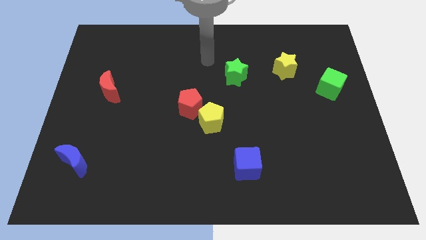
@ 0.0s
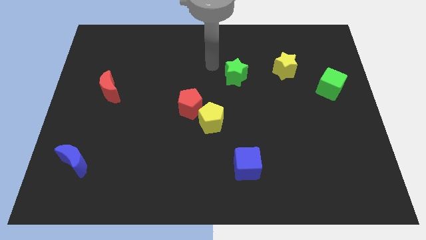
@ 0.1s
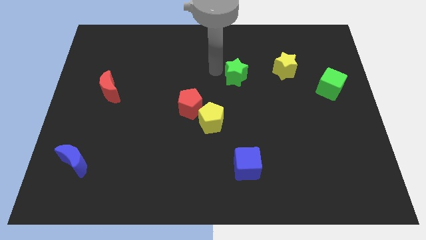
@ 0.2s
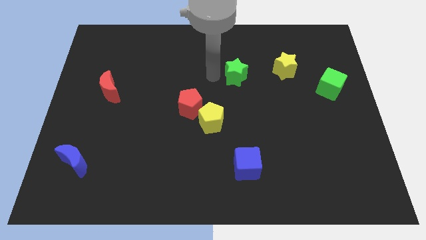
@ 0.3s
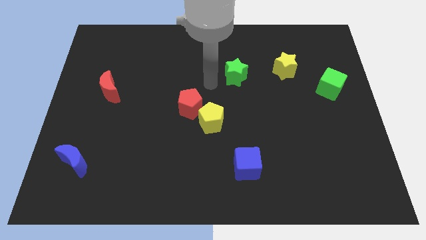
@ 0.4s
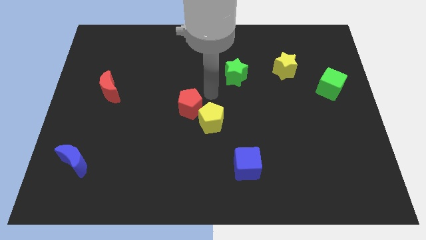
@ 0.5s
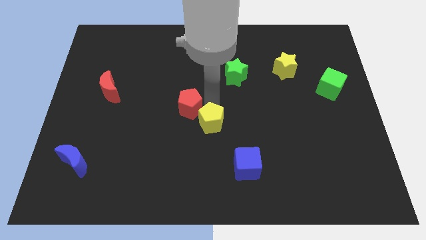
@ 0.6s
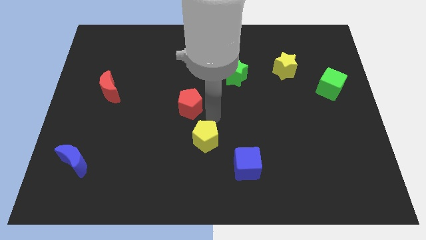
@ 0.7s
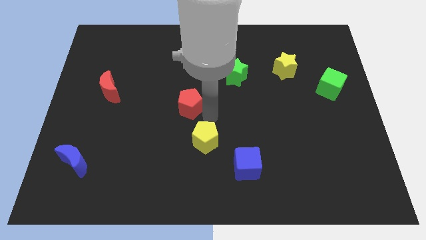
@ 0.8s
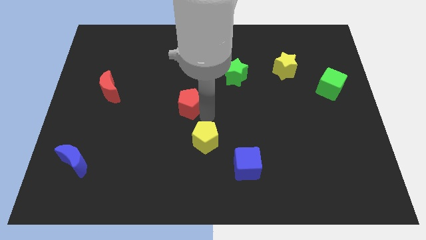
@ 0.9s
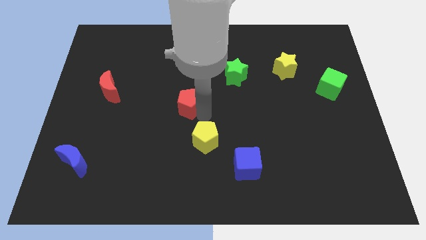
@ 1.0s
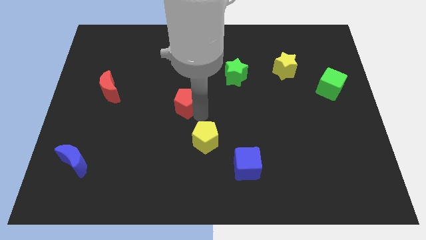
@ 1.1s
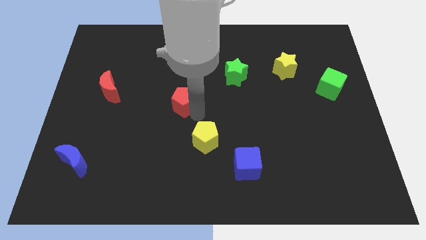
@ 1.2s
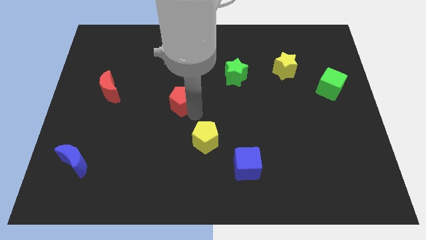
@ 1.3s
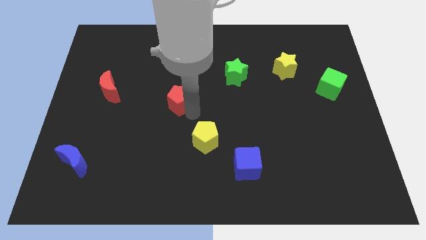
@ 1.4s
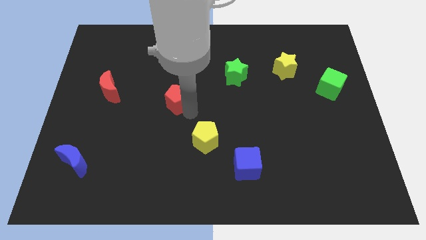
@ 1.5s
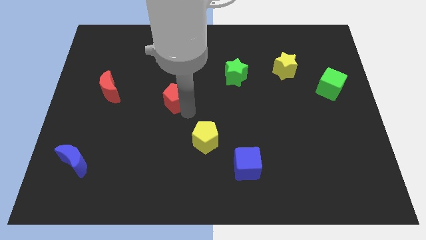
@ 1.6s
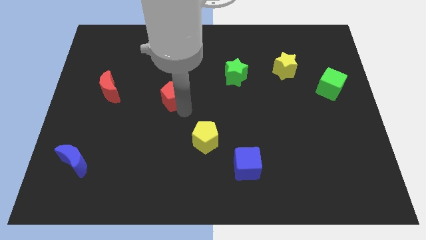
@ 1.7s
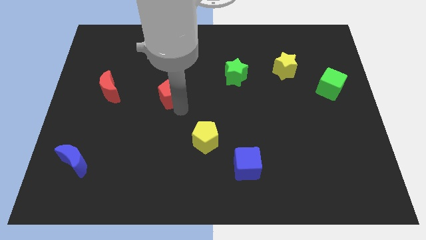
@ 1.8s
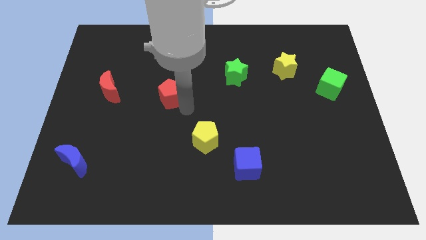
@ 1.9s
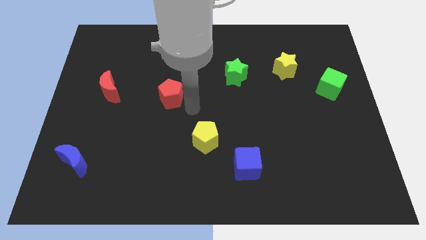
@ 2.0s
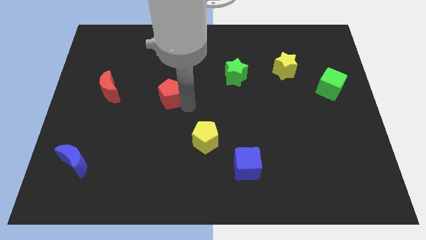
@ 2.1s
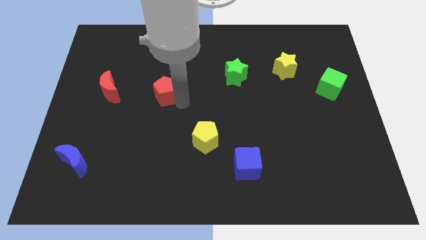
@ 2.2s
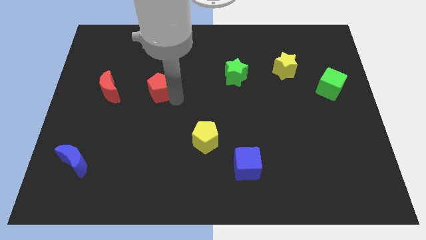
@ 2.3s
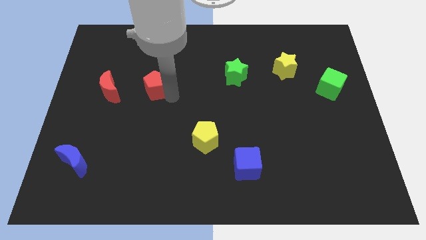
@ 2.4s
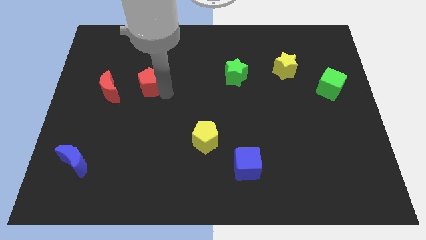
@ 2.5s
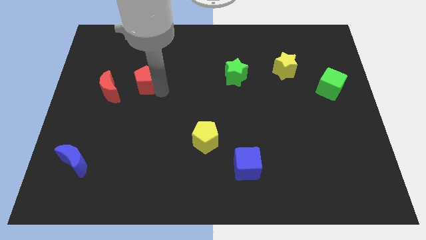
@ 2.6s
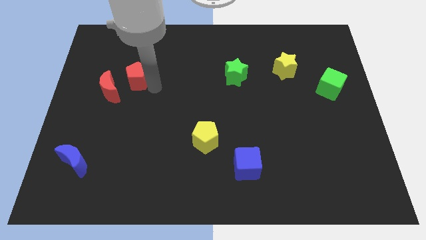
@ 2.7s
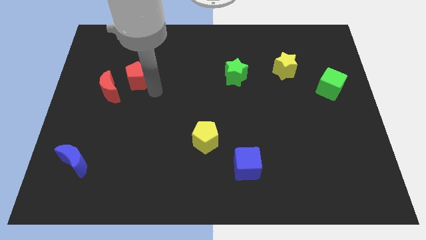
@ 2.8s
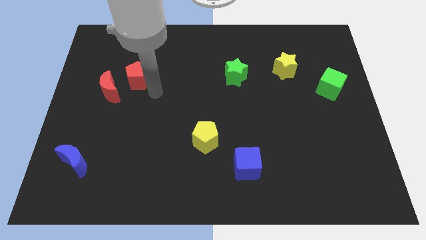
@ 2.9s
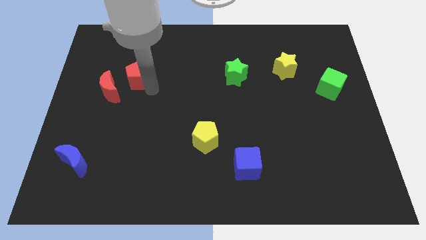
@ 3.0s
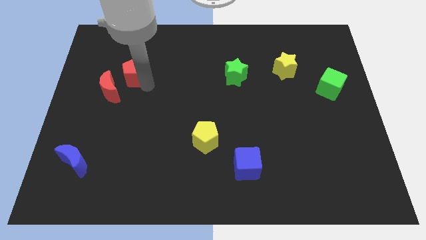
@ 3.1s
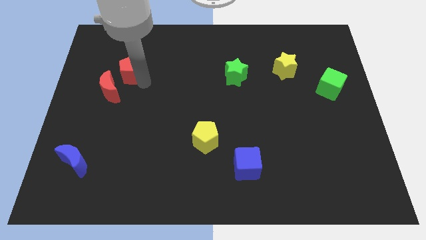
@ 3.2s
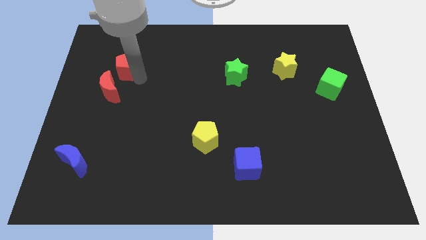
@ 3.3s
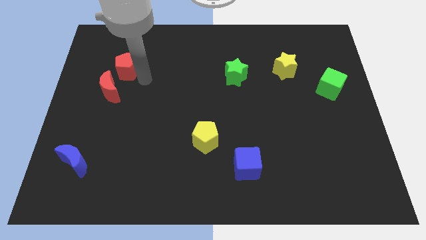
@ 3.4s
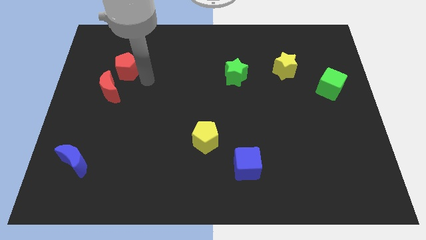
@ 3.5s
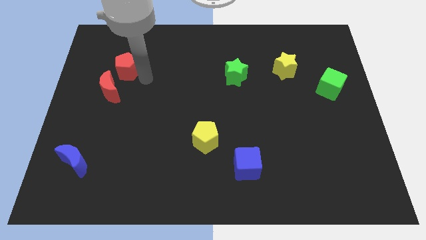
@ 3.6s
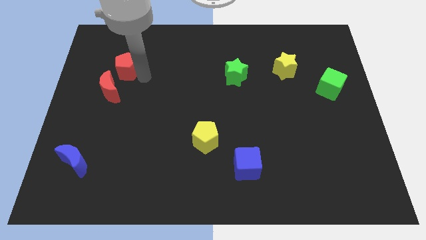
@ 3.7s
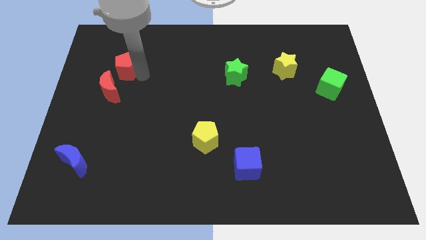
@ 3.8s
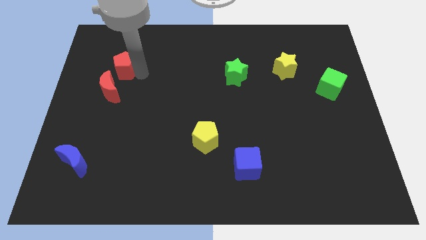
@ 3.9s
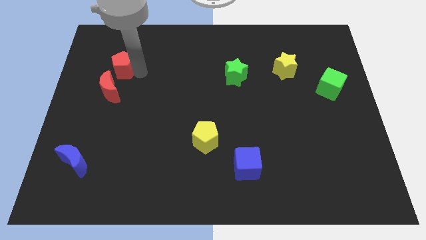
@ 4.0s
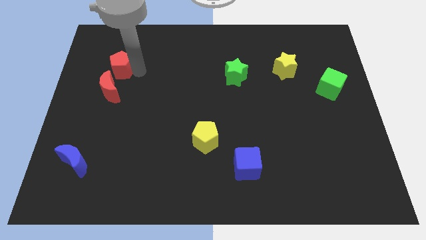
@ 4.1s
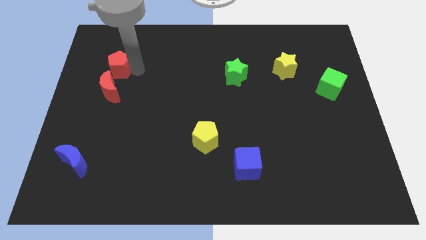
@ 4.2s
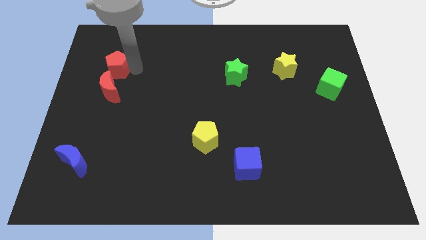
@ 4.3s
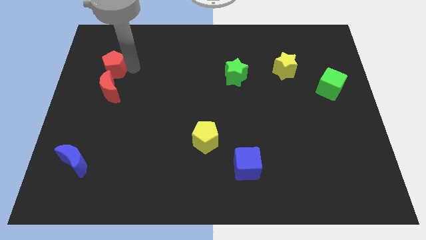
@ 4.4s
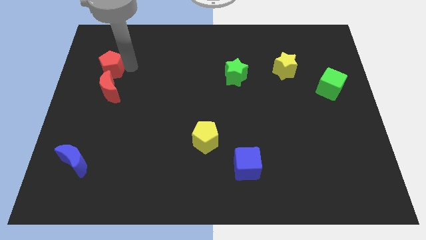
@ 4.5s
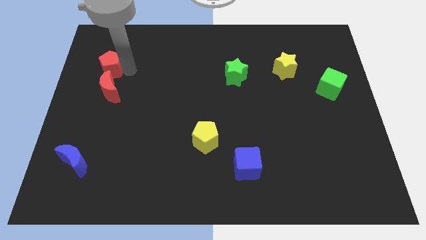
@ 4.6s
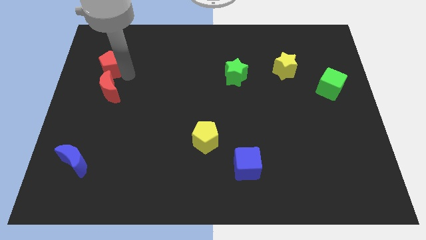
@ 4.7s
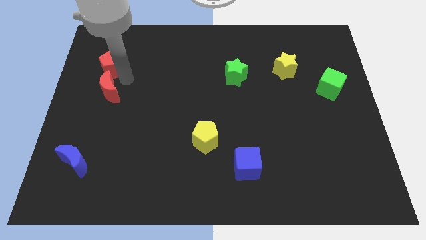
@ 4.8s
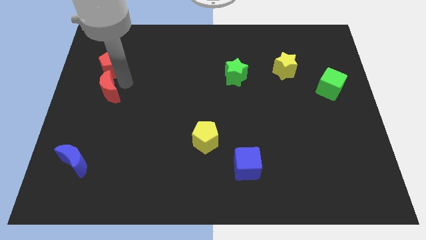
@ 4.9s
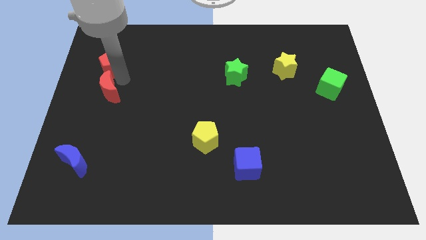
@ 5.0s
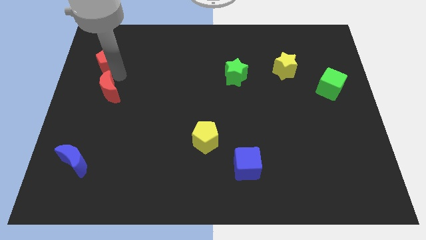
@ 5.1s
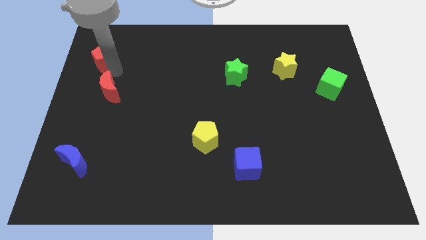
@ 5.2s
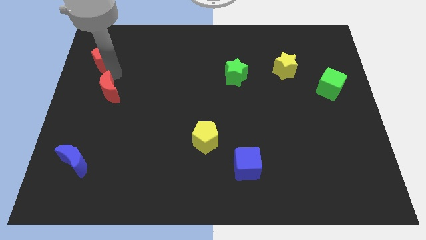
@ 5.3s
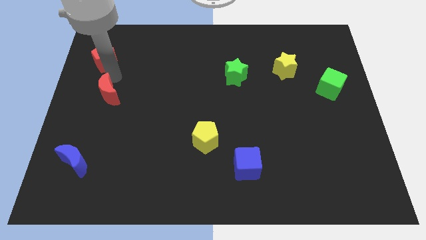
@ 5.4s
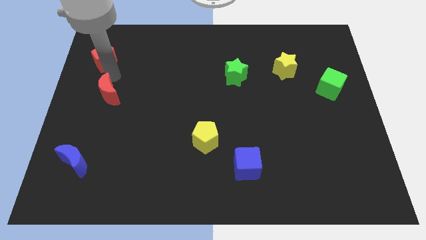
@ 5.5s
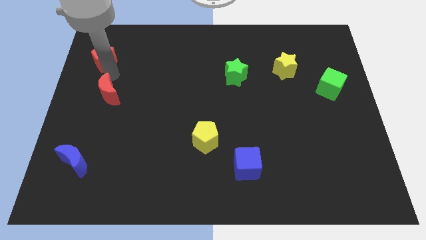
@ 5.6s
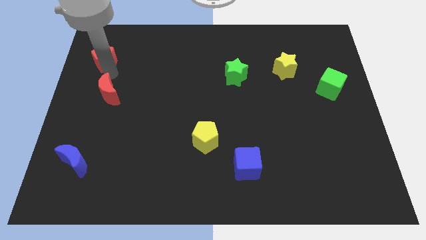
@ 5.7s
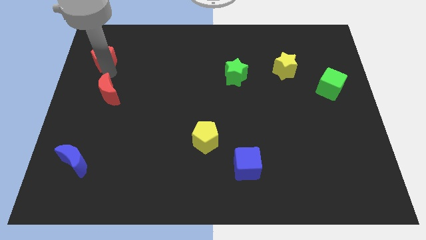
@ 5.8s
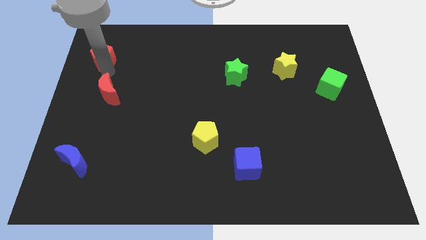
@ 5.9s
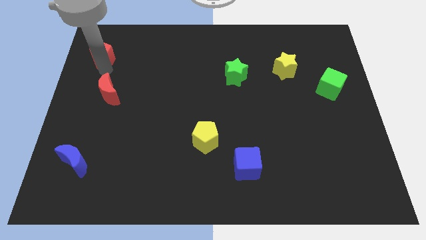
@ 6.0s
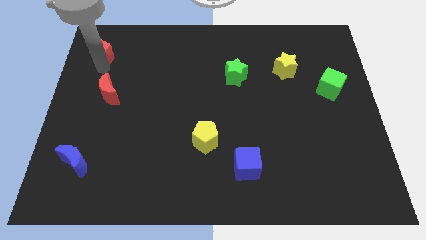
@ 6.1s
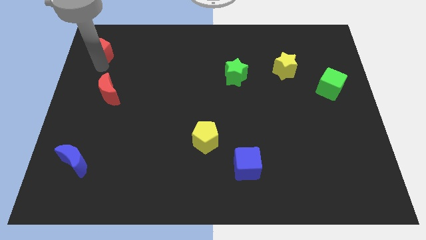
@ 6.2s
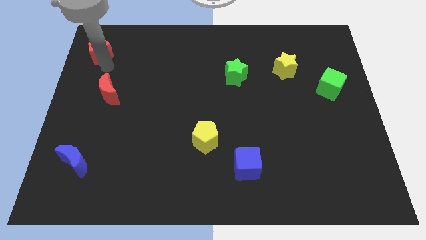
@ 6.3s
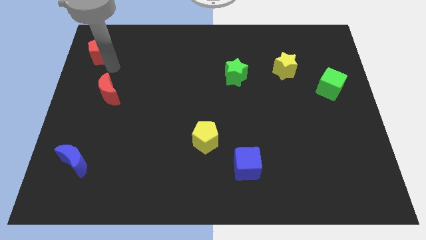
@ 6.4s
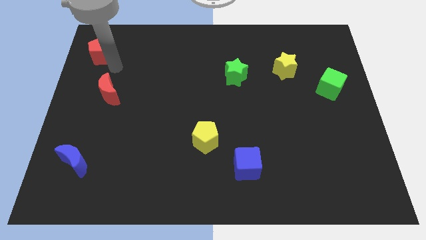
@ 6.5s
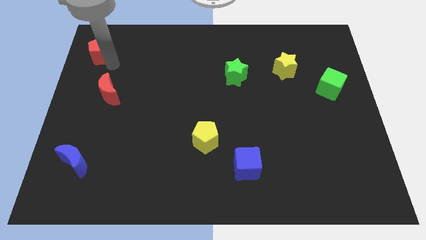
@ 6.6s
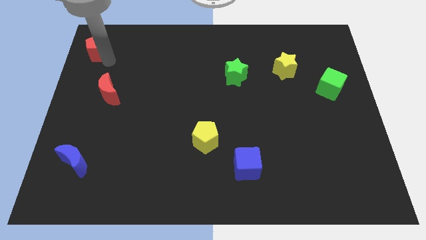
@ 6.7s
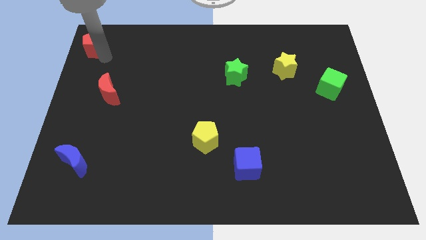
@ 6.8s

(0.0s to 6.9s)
push the red pentagon to the top left corner
